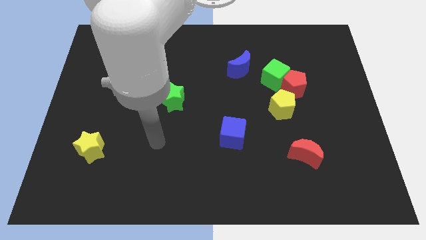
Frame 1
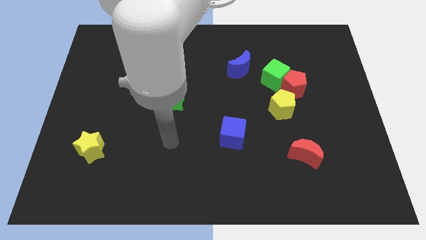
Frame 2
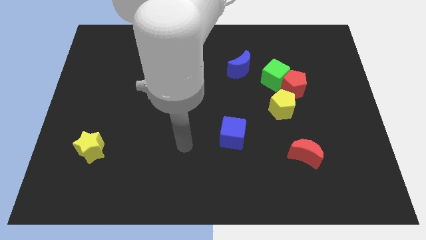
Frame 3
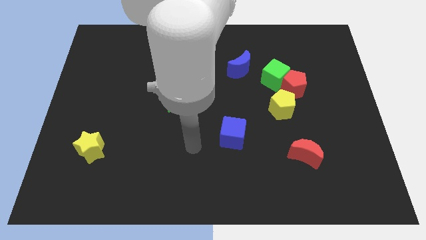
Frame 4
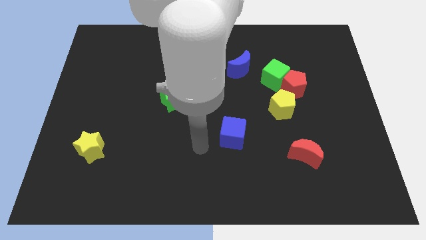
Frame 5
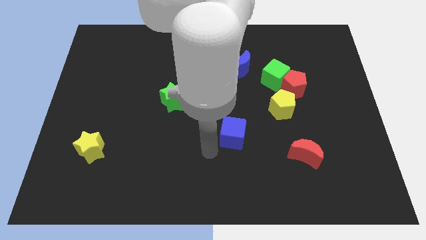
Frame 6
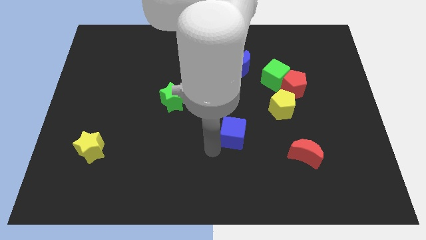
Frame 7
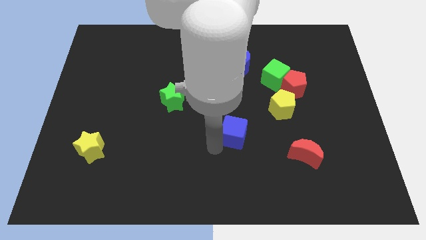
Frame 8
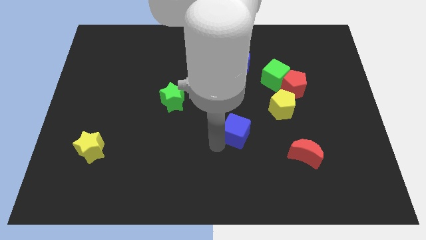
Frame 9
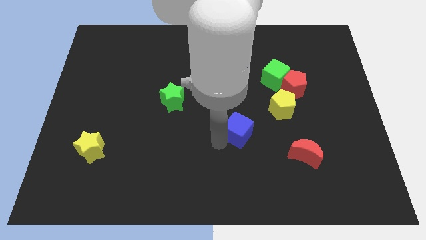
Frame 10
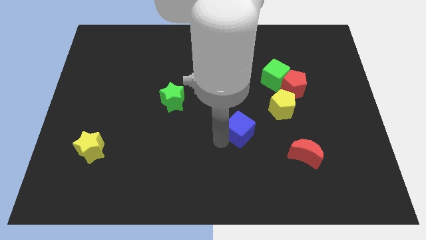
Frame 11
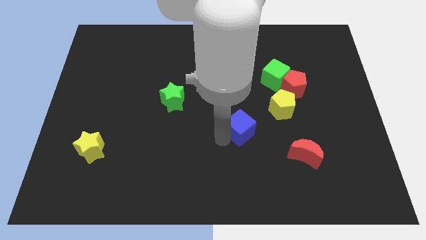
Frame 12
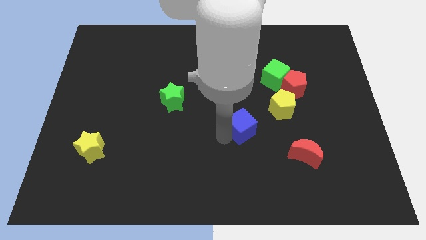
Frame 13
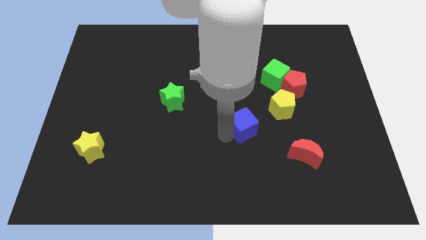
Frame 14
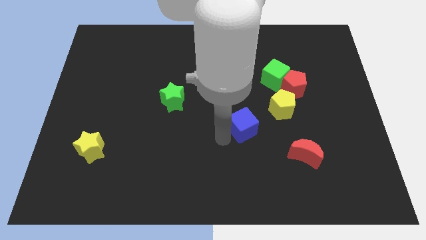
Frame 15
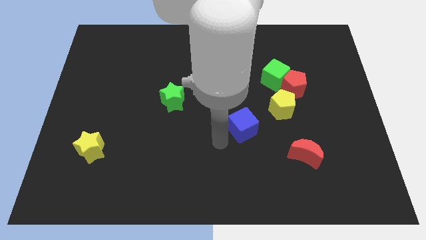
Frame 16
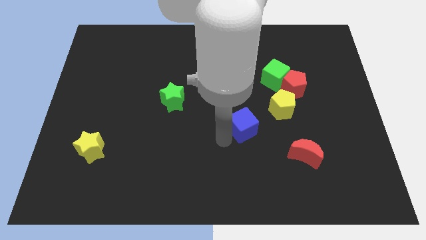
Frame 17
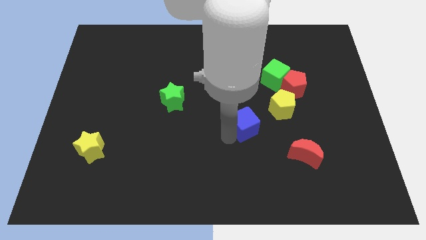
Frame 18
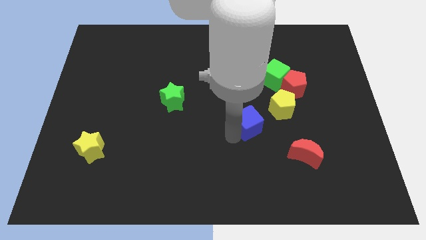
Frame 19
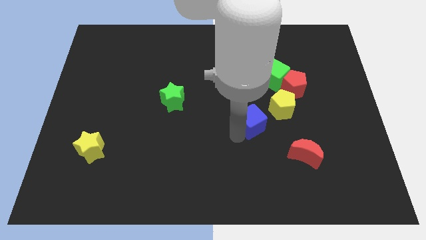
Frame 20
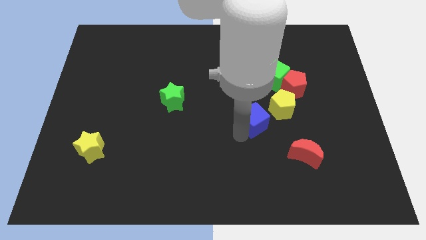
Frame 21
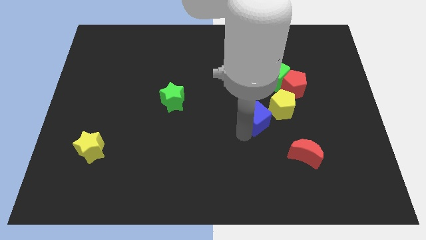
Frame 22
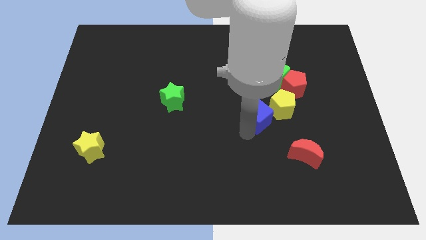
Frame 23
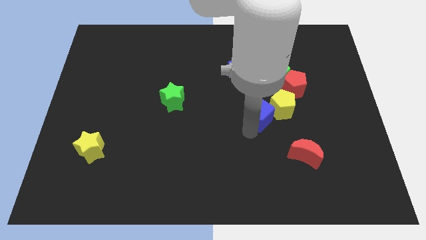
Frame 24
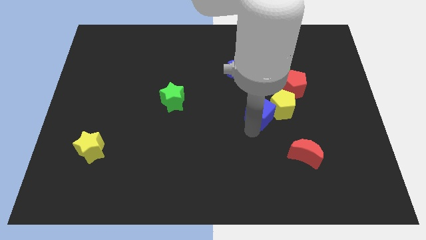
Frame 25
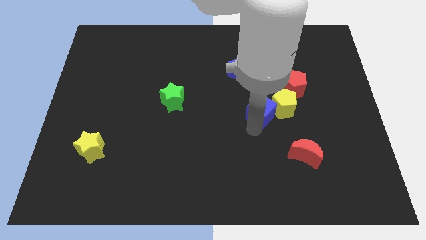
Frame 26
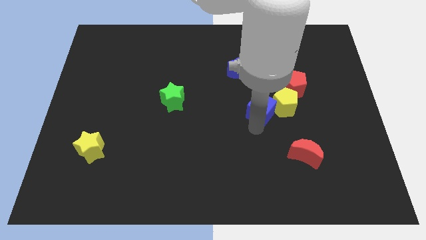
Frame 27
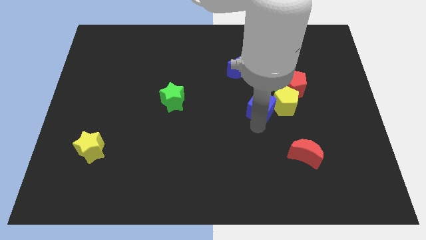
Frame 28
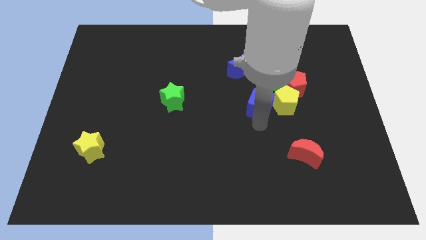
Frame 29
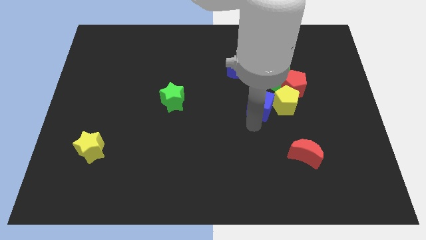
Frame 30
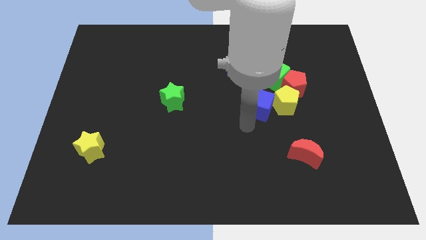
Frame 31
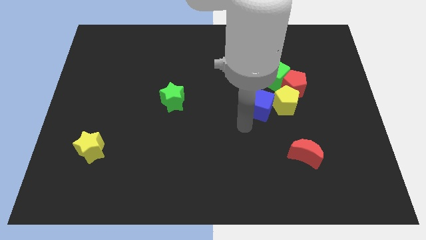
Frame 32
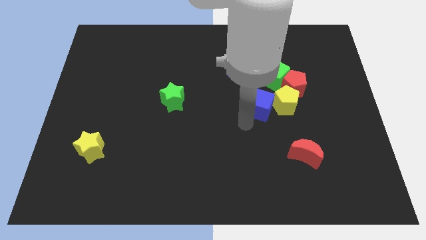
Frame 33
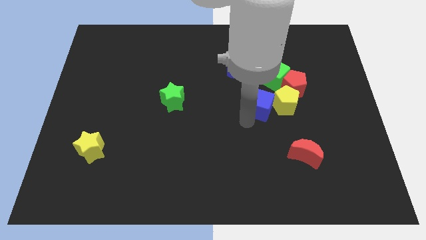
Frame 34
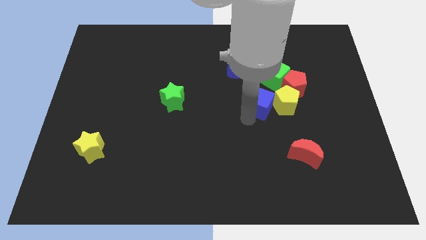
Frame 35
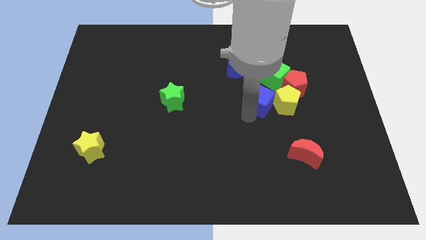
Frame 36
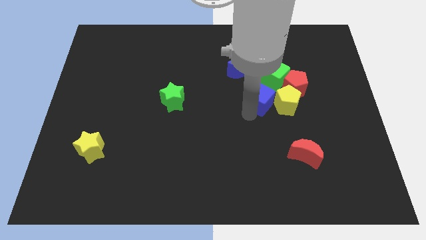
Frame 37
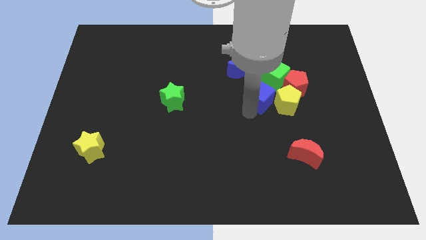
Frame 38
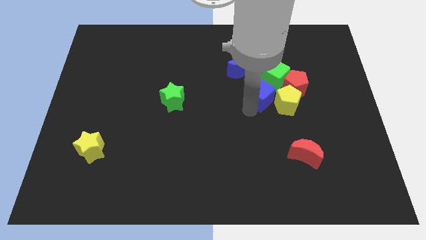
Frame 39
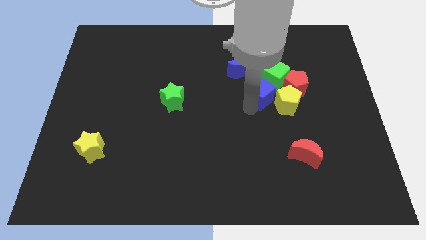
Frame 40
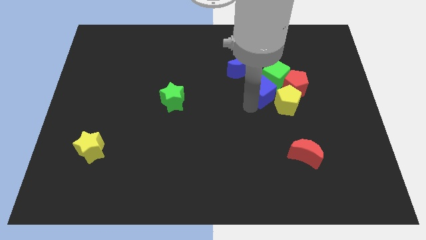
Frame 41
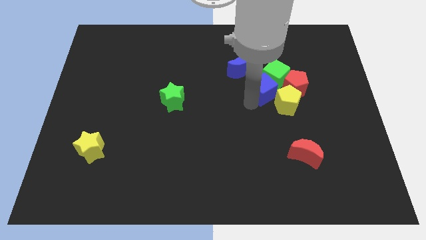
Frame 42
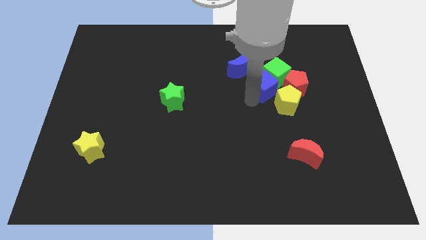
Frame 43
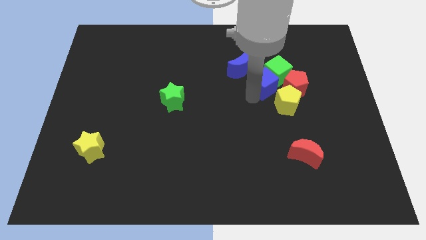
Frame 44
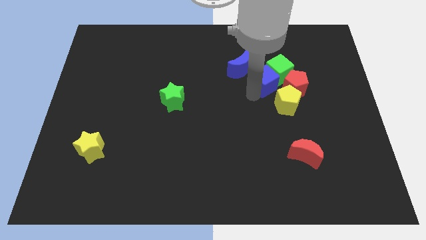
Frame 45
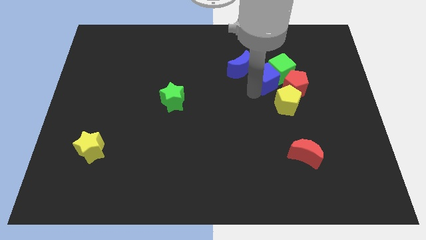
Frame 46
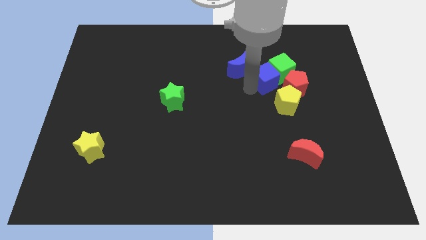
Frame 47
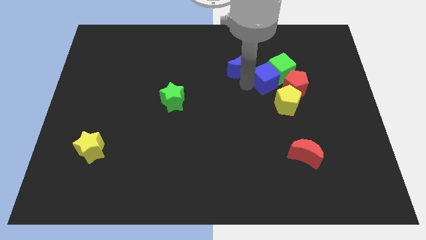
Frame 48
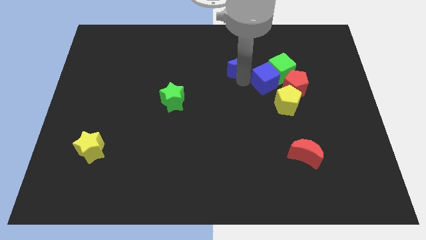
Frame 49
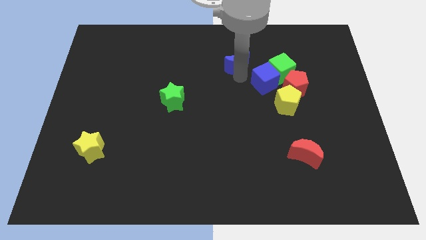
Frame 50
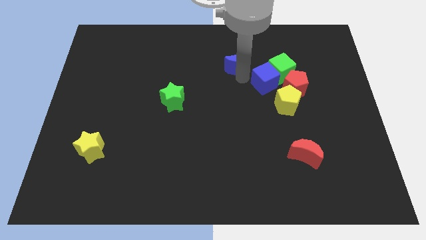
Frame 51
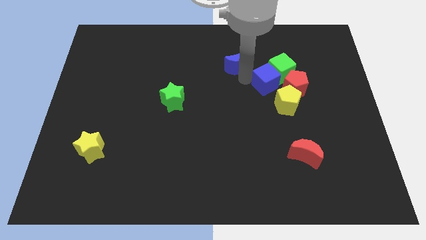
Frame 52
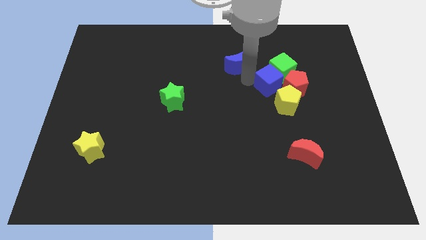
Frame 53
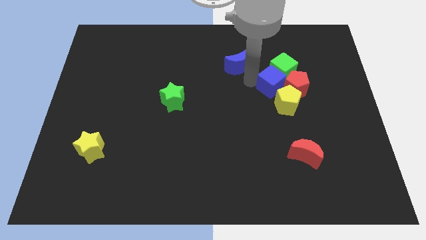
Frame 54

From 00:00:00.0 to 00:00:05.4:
move the blue cube to the red pentagon

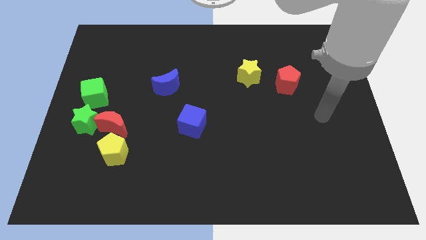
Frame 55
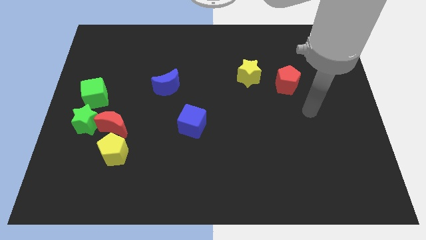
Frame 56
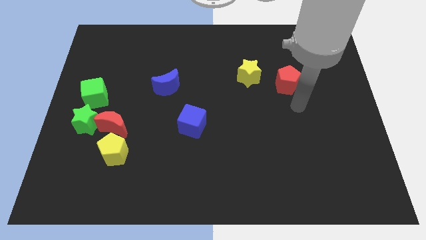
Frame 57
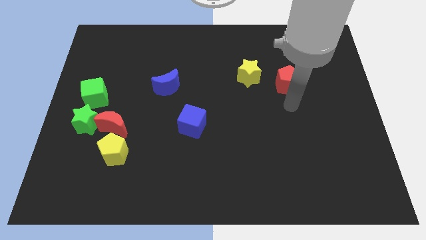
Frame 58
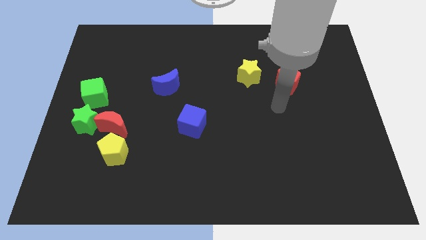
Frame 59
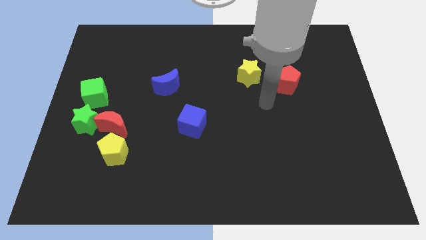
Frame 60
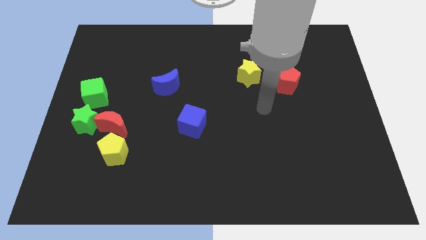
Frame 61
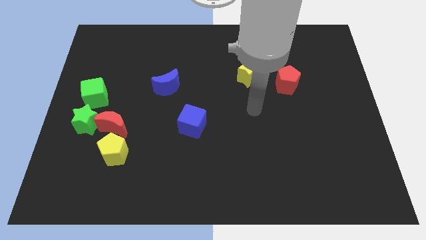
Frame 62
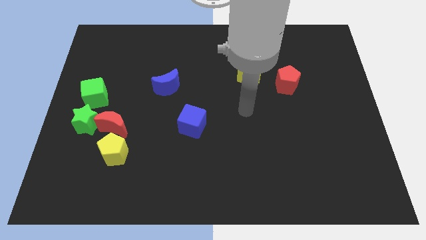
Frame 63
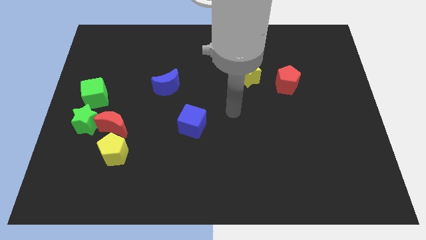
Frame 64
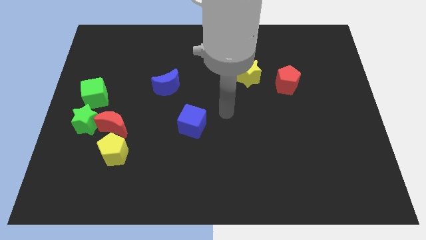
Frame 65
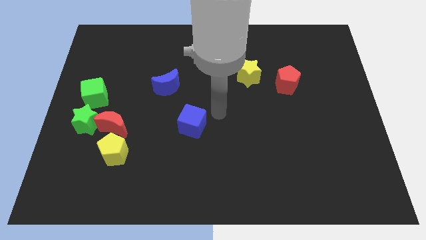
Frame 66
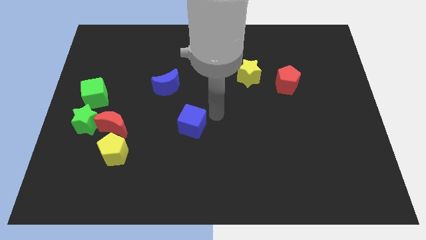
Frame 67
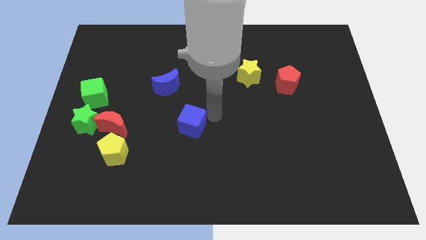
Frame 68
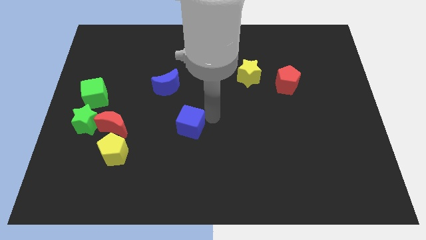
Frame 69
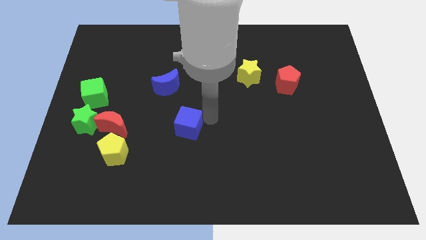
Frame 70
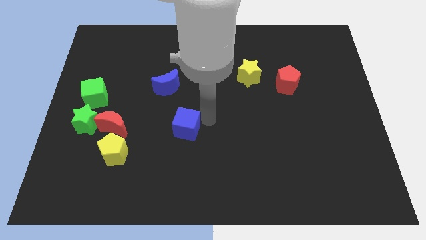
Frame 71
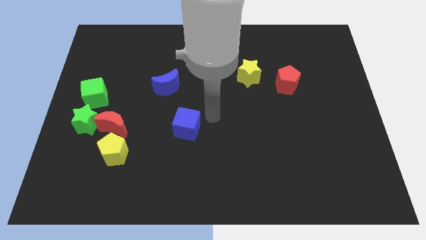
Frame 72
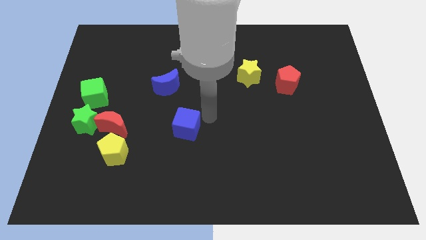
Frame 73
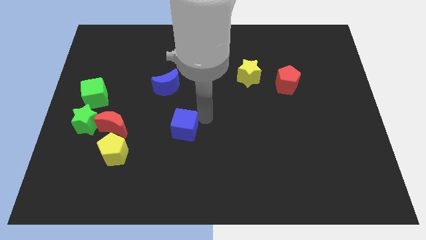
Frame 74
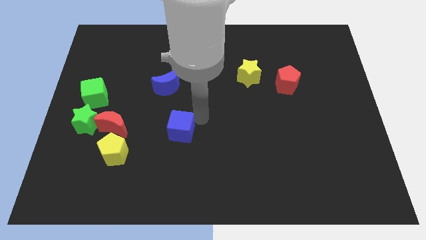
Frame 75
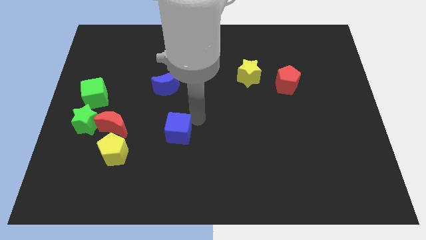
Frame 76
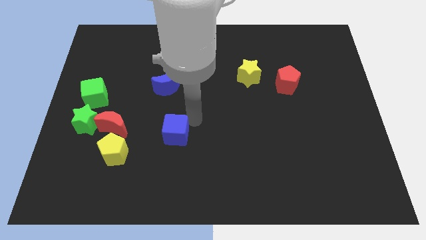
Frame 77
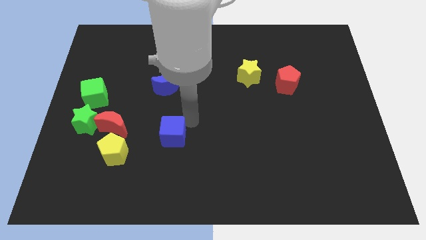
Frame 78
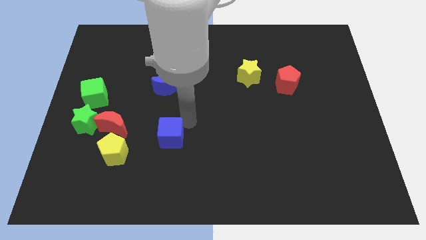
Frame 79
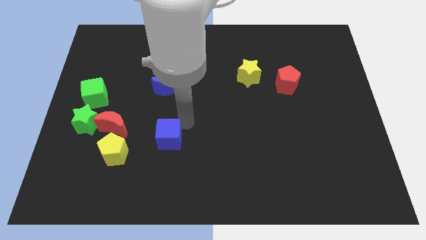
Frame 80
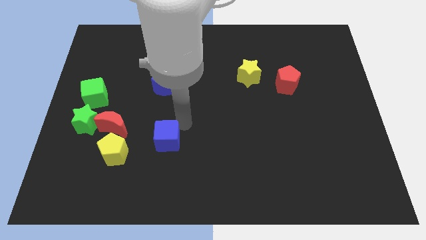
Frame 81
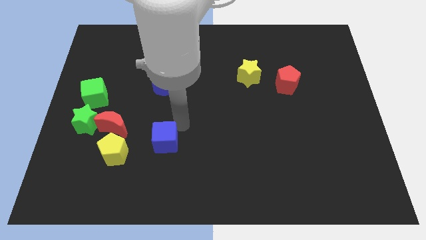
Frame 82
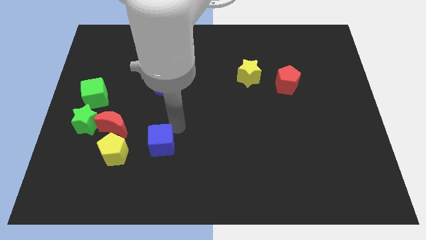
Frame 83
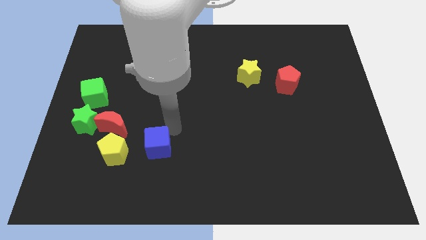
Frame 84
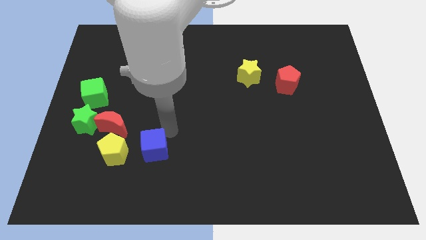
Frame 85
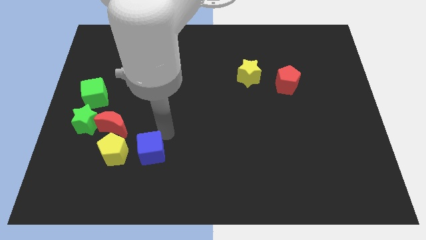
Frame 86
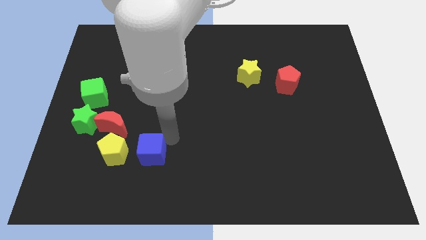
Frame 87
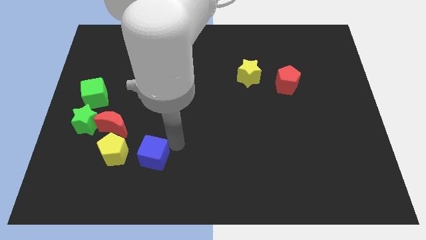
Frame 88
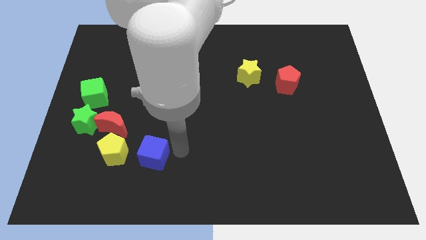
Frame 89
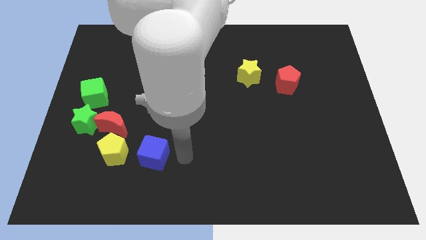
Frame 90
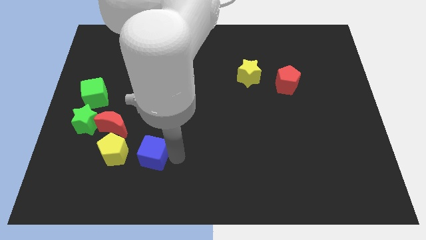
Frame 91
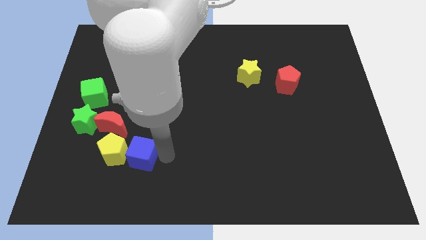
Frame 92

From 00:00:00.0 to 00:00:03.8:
push the blue cube close to the yellow pentagon
